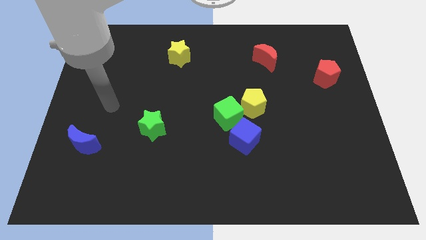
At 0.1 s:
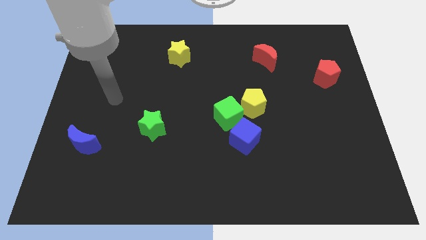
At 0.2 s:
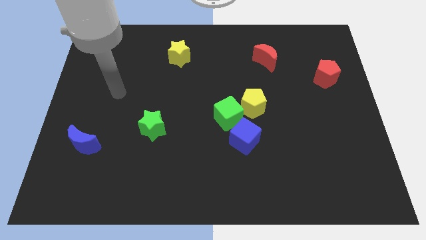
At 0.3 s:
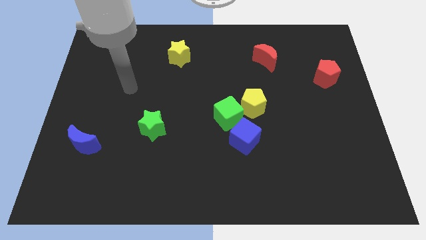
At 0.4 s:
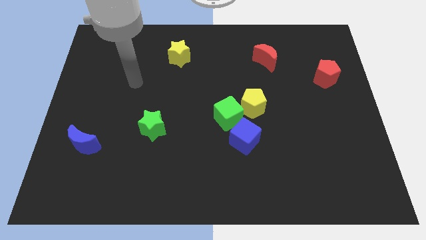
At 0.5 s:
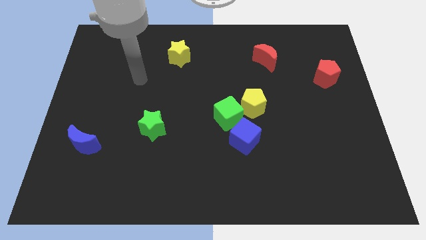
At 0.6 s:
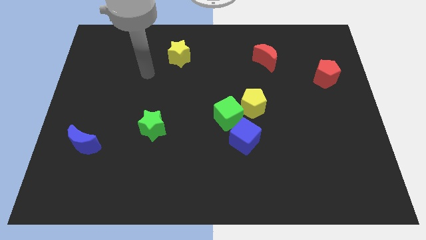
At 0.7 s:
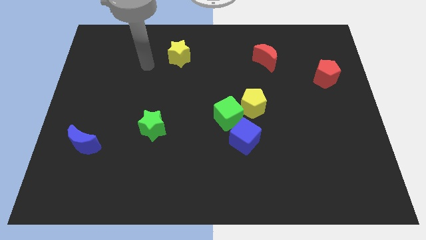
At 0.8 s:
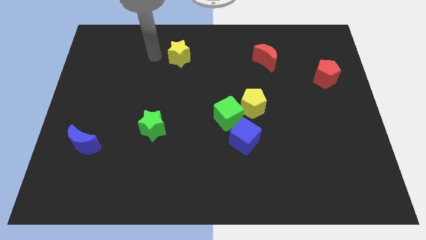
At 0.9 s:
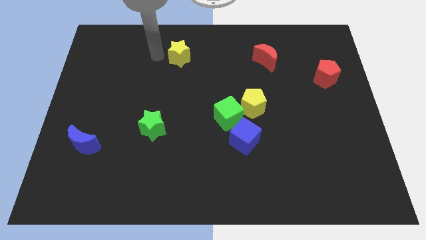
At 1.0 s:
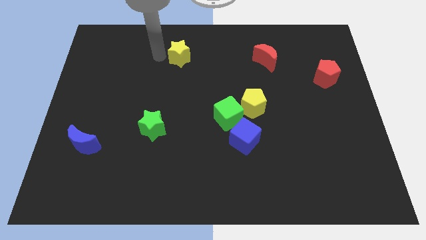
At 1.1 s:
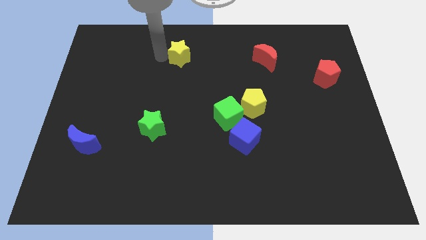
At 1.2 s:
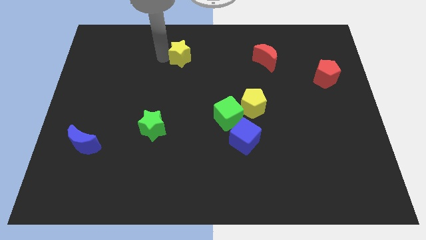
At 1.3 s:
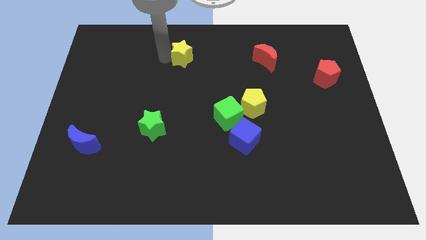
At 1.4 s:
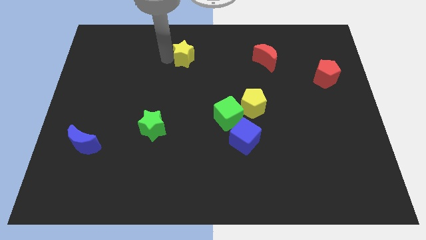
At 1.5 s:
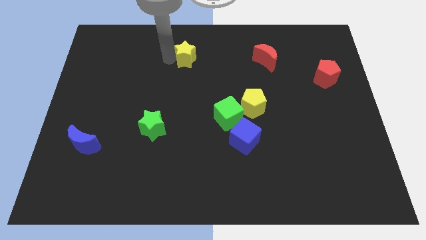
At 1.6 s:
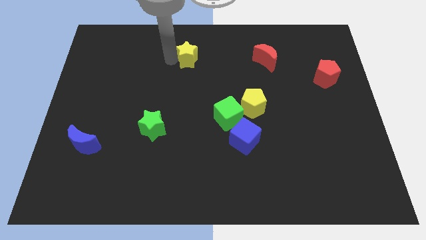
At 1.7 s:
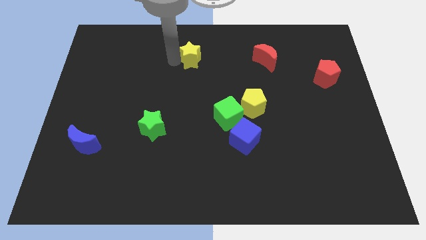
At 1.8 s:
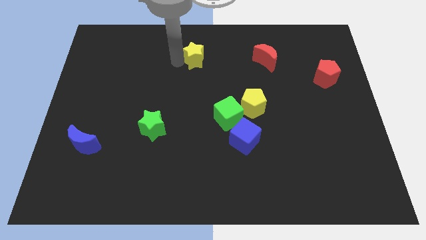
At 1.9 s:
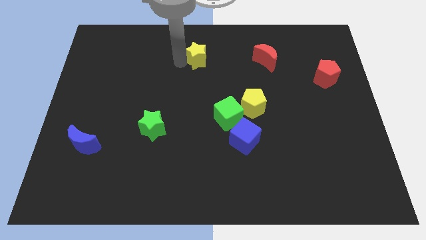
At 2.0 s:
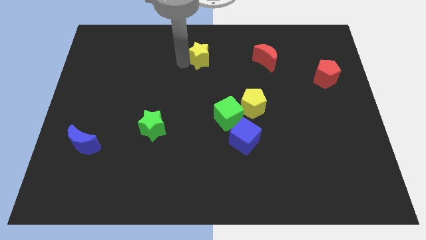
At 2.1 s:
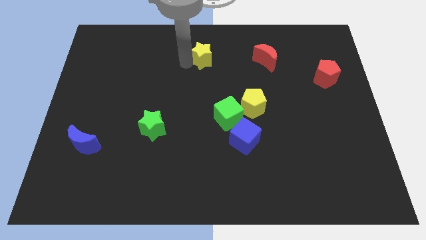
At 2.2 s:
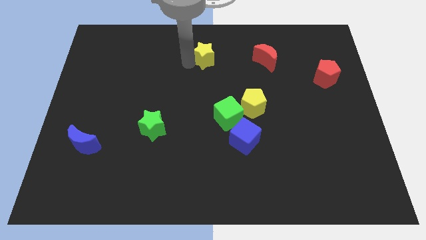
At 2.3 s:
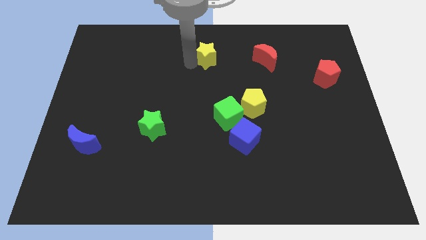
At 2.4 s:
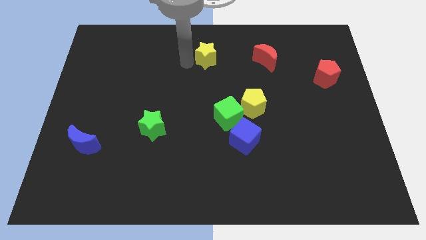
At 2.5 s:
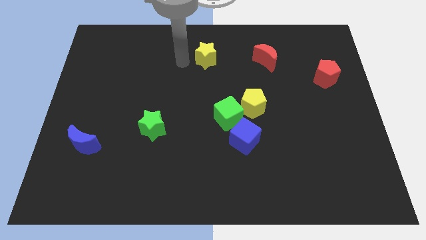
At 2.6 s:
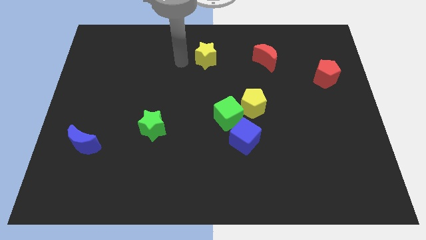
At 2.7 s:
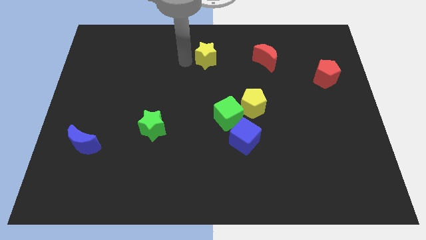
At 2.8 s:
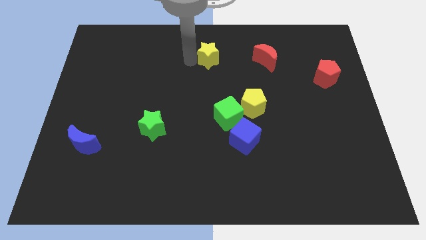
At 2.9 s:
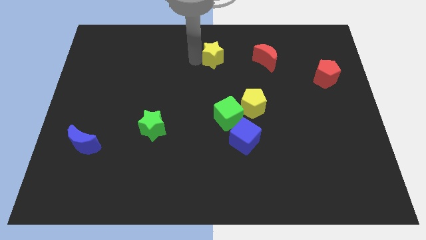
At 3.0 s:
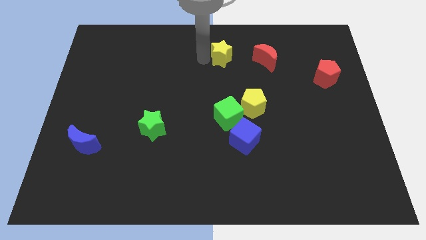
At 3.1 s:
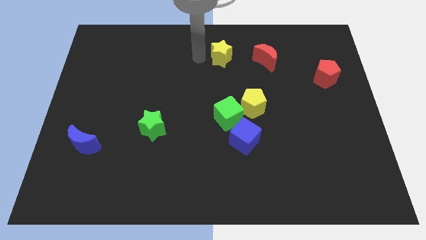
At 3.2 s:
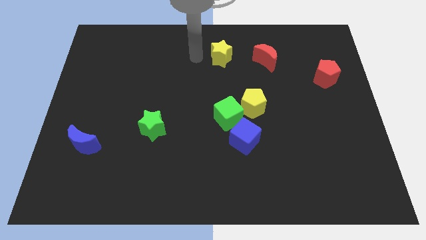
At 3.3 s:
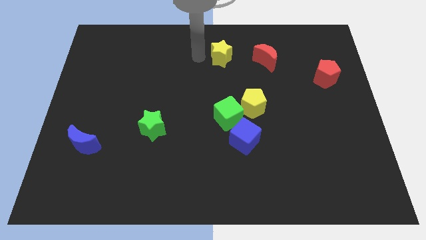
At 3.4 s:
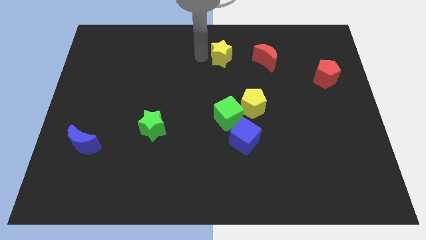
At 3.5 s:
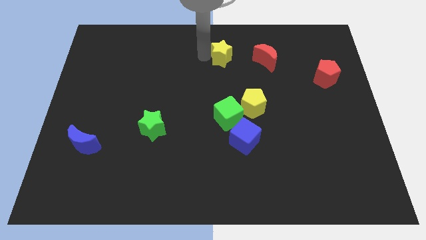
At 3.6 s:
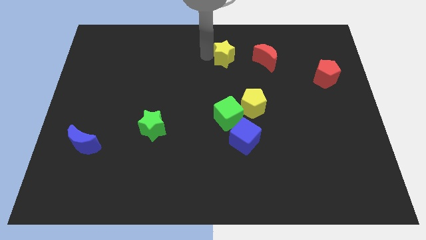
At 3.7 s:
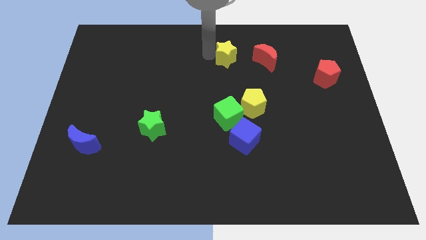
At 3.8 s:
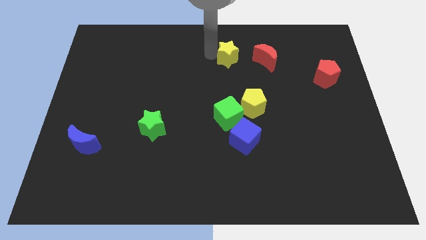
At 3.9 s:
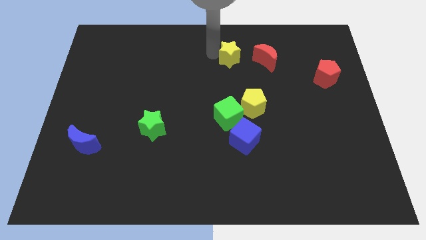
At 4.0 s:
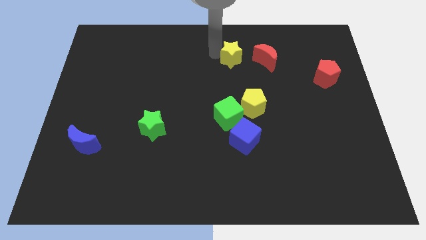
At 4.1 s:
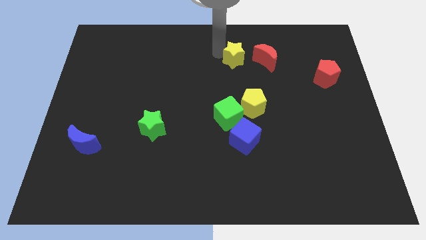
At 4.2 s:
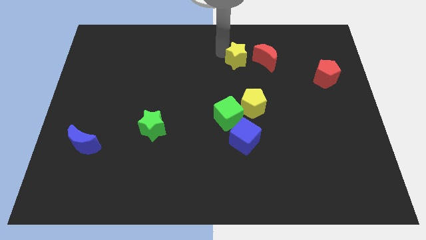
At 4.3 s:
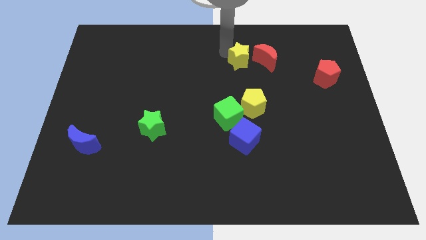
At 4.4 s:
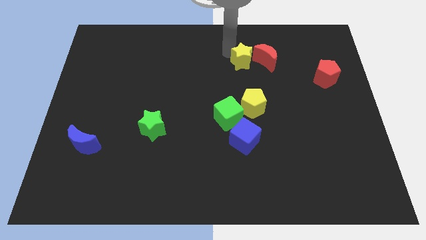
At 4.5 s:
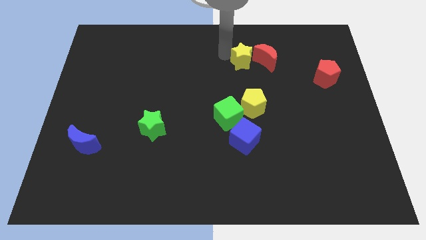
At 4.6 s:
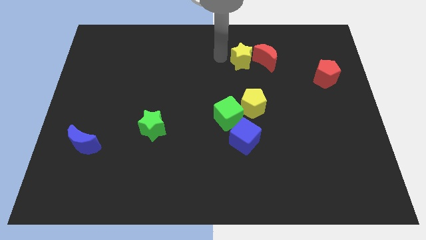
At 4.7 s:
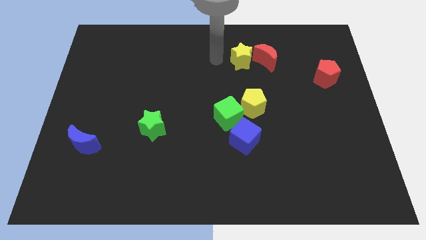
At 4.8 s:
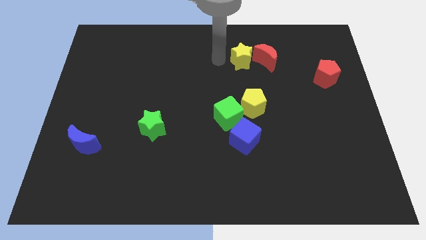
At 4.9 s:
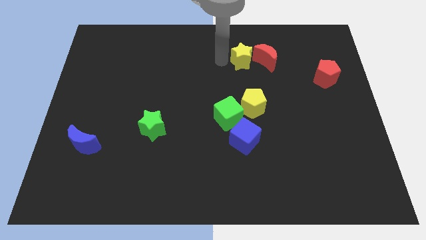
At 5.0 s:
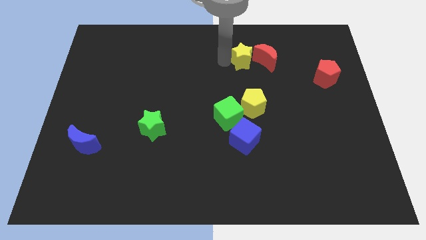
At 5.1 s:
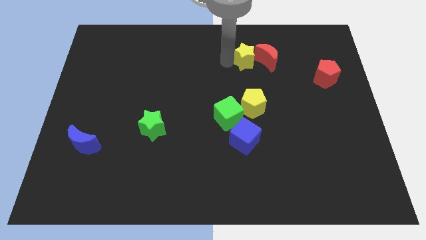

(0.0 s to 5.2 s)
slide the yellow star close to the red moon

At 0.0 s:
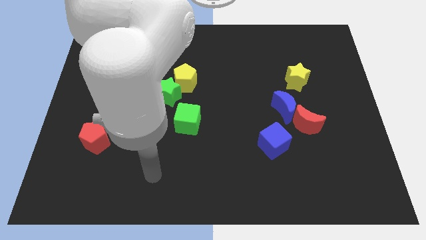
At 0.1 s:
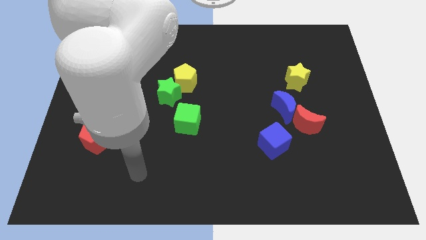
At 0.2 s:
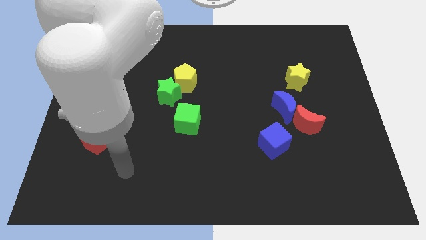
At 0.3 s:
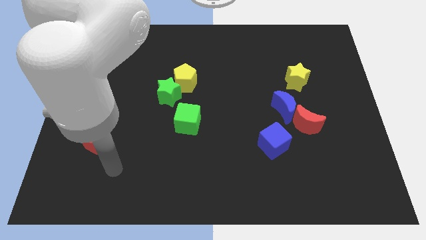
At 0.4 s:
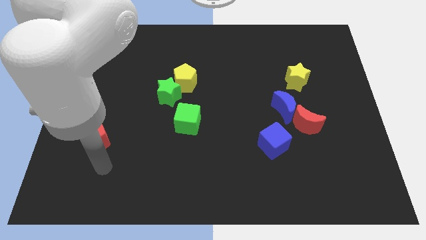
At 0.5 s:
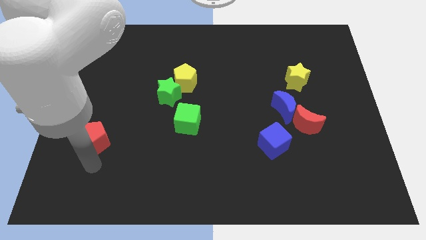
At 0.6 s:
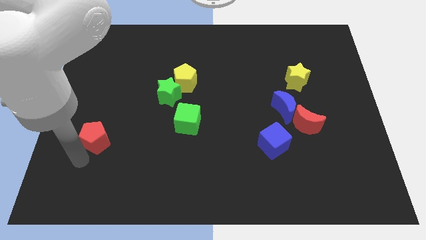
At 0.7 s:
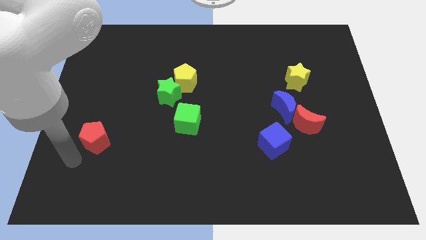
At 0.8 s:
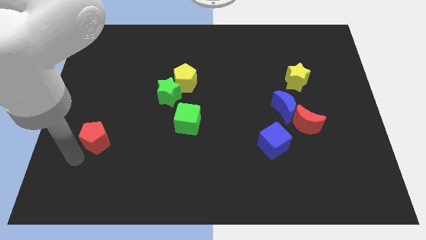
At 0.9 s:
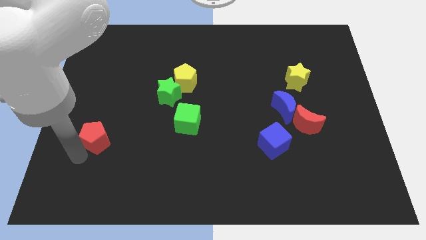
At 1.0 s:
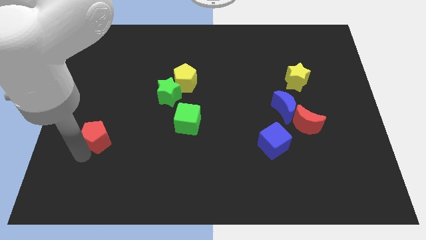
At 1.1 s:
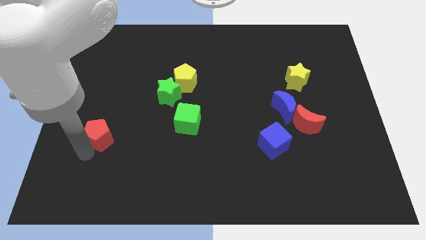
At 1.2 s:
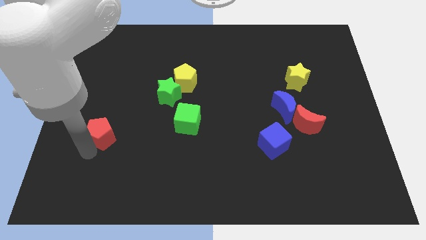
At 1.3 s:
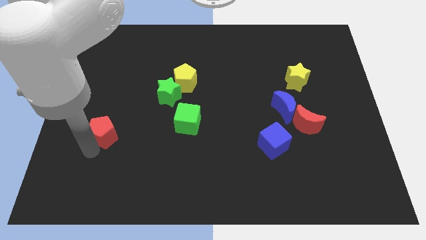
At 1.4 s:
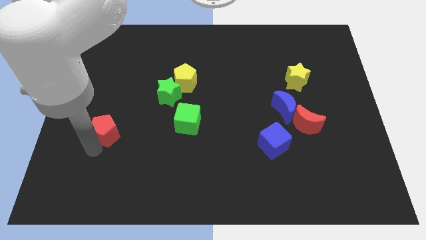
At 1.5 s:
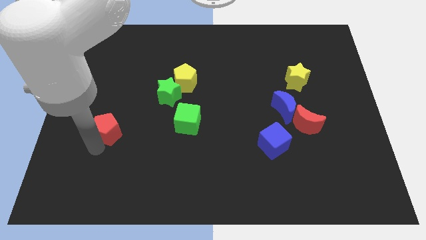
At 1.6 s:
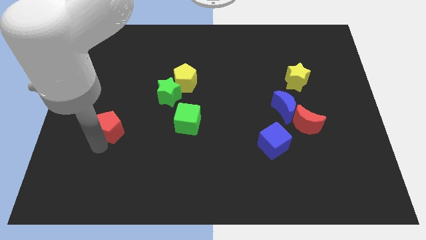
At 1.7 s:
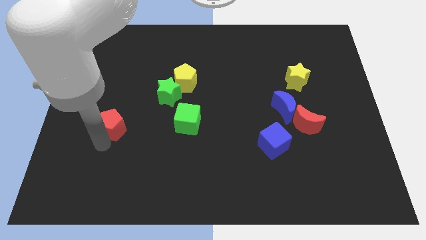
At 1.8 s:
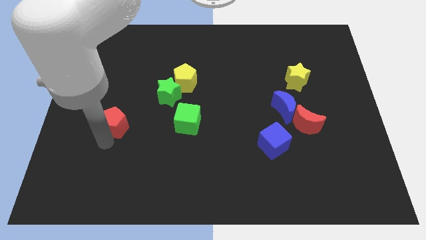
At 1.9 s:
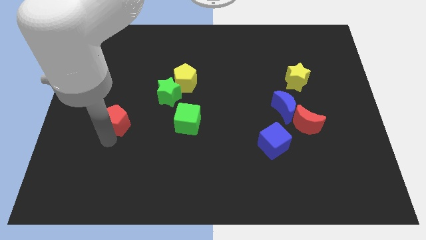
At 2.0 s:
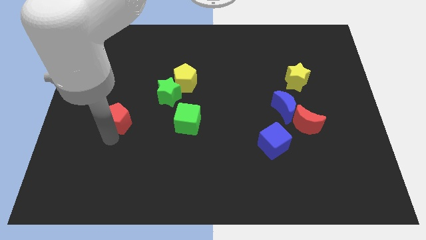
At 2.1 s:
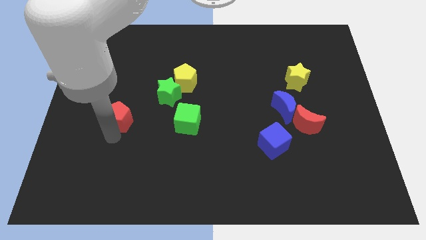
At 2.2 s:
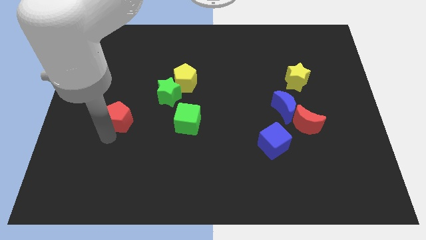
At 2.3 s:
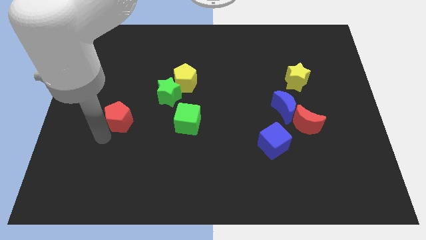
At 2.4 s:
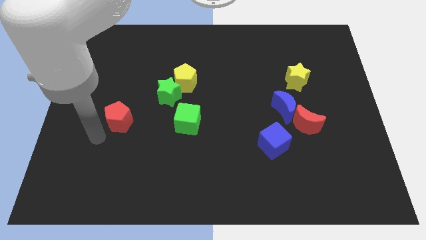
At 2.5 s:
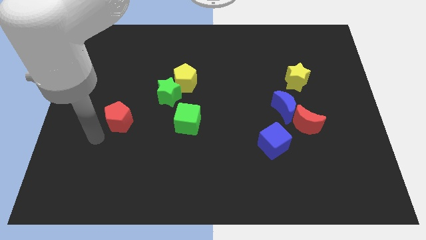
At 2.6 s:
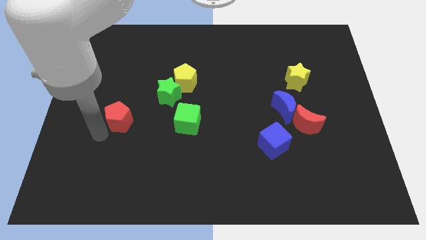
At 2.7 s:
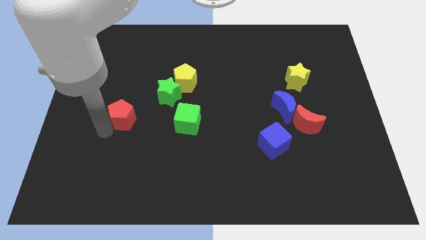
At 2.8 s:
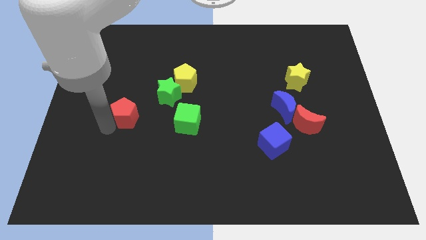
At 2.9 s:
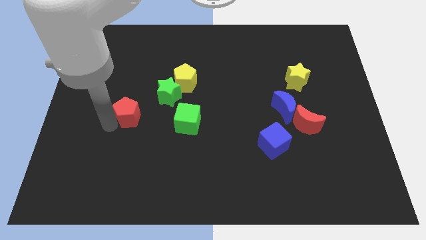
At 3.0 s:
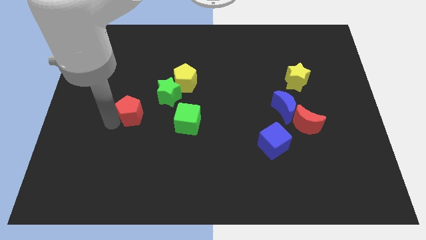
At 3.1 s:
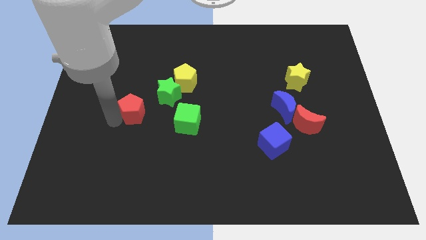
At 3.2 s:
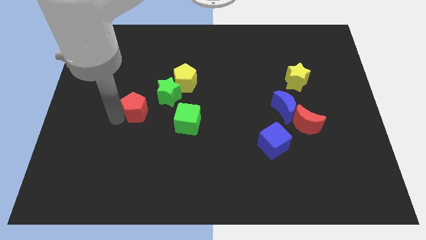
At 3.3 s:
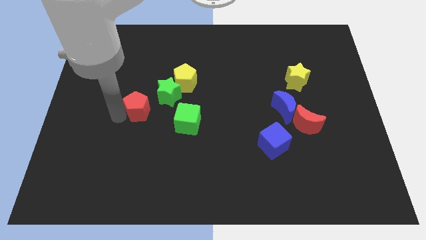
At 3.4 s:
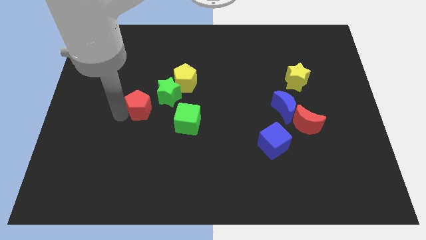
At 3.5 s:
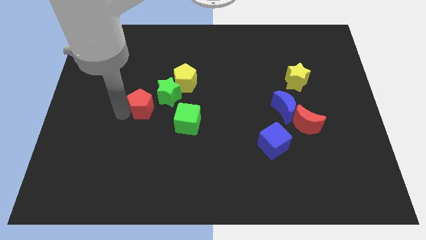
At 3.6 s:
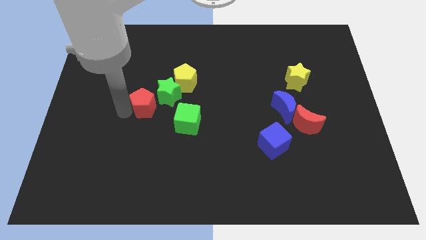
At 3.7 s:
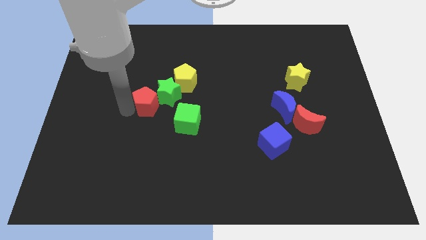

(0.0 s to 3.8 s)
put the red pentagon to the green star
